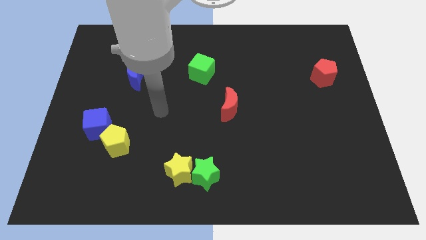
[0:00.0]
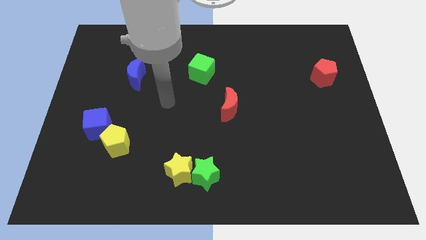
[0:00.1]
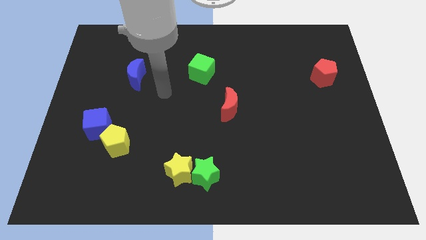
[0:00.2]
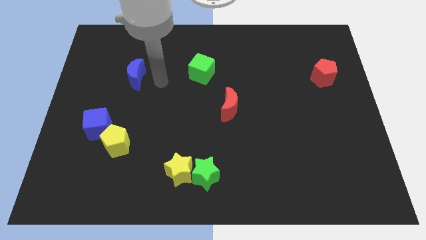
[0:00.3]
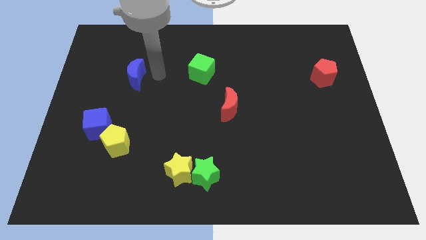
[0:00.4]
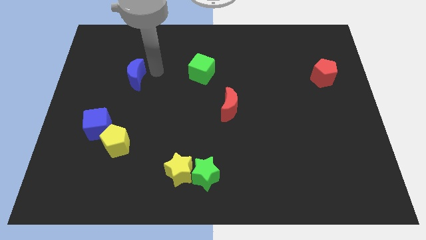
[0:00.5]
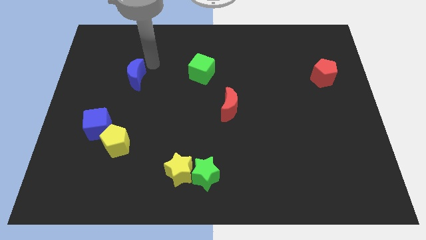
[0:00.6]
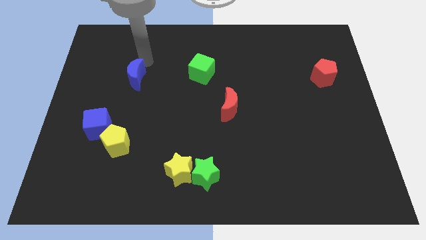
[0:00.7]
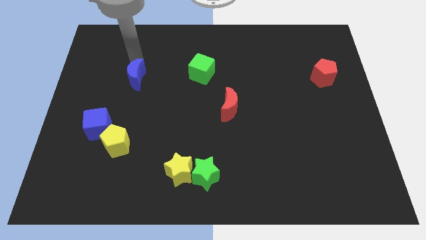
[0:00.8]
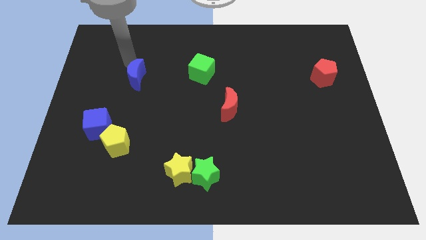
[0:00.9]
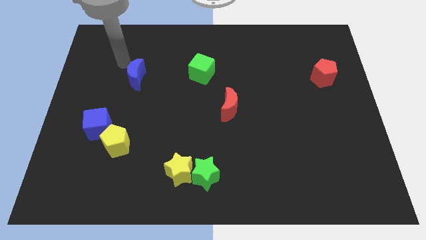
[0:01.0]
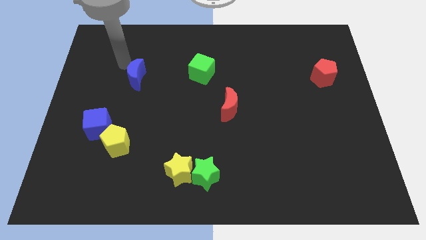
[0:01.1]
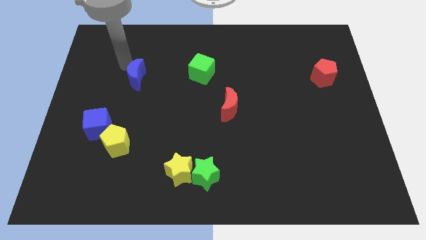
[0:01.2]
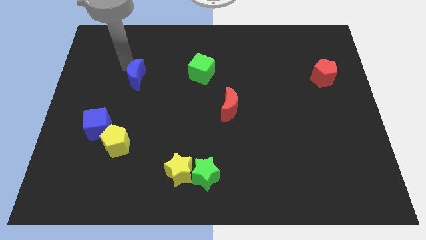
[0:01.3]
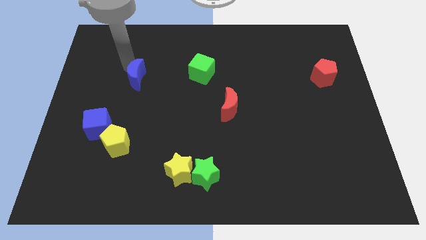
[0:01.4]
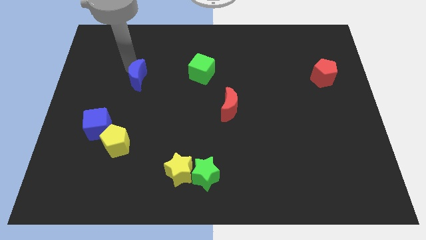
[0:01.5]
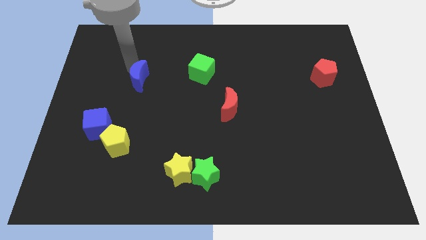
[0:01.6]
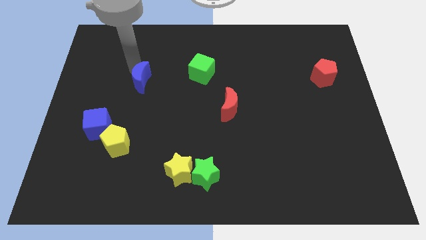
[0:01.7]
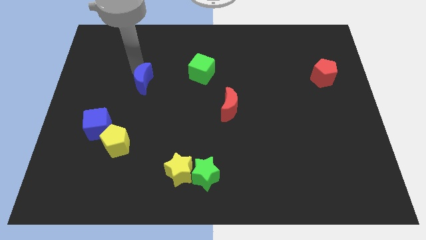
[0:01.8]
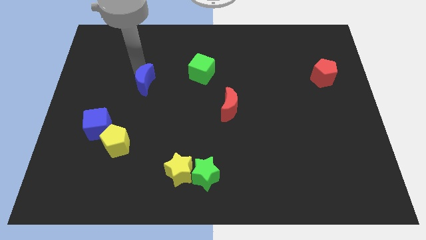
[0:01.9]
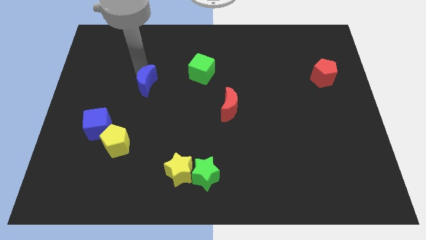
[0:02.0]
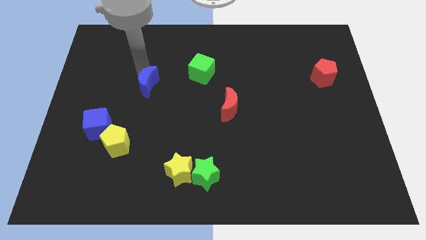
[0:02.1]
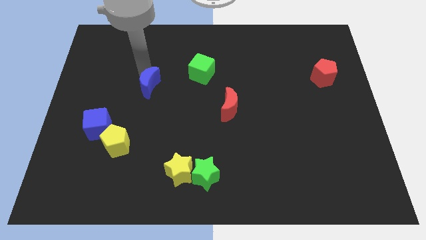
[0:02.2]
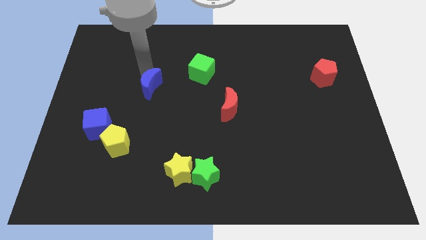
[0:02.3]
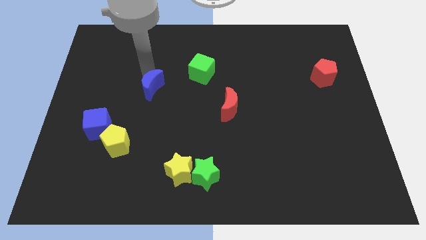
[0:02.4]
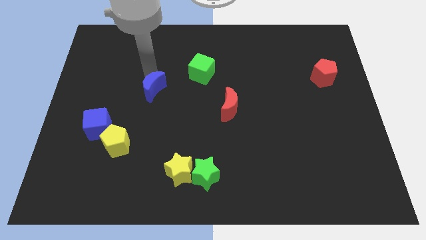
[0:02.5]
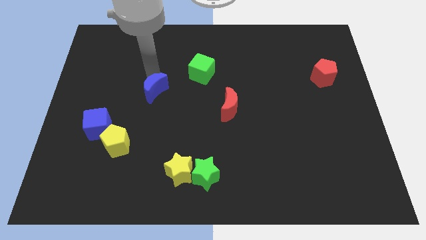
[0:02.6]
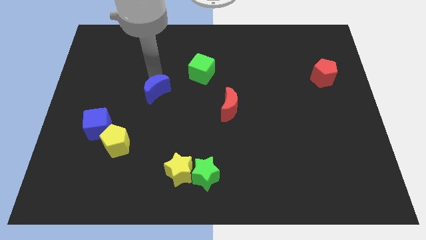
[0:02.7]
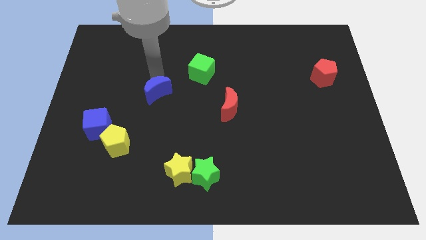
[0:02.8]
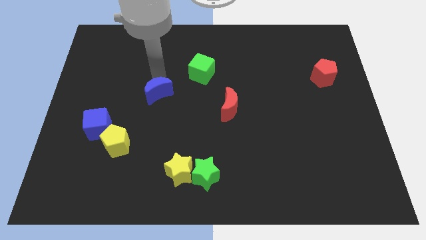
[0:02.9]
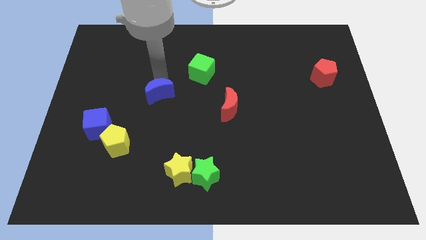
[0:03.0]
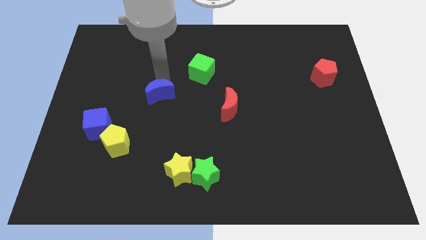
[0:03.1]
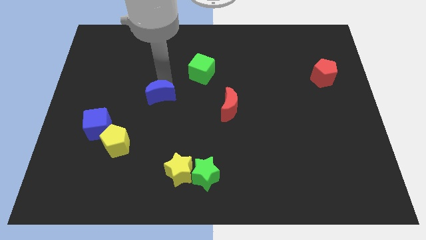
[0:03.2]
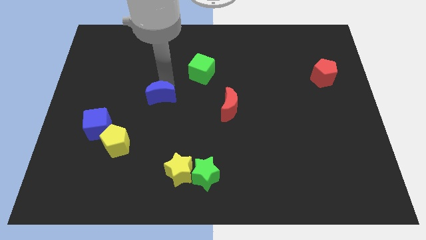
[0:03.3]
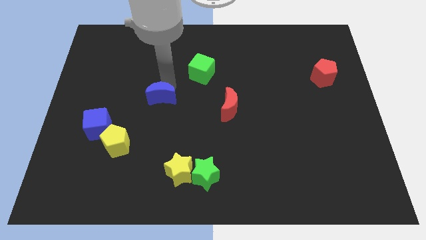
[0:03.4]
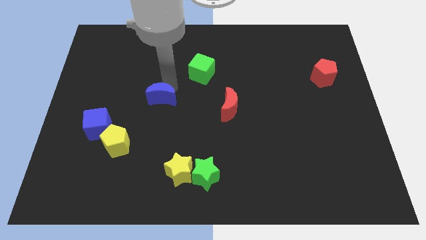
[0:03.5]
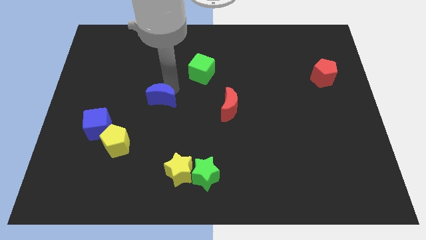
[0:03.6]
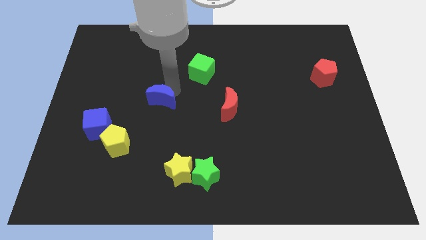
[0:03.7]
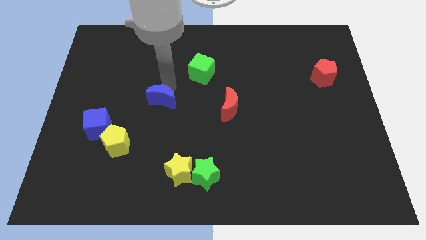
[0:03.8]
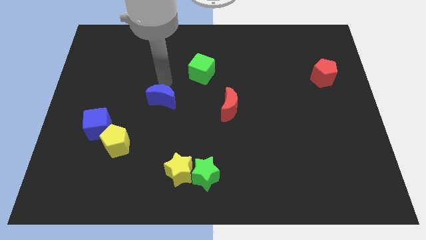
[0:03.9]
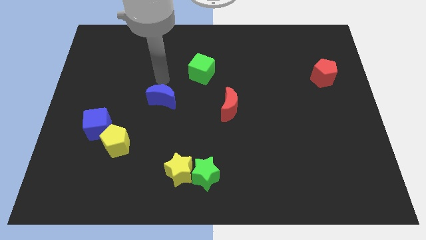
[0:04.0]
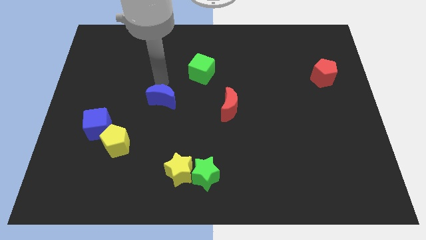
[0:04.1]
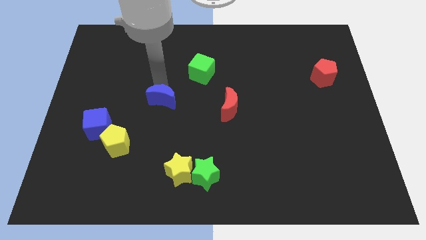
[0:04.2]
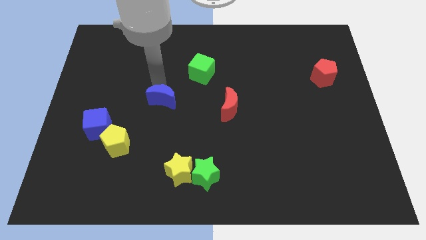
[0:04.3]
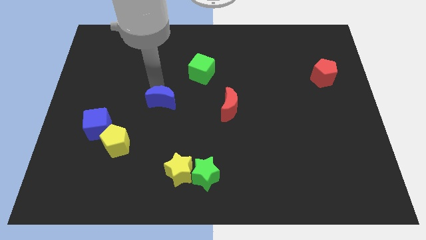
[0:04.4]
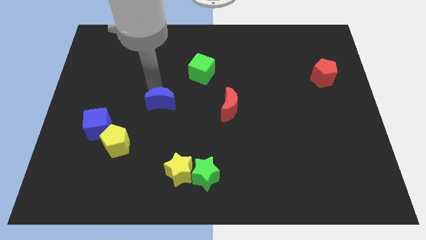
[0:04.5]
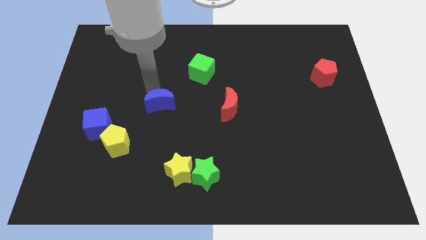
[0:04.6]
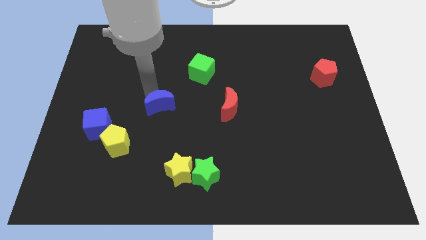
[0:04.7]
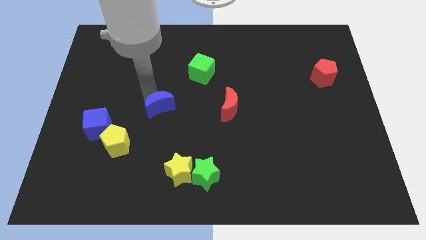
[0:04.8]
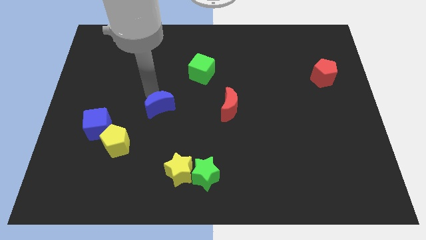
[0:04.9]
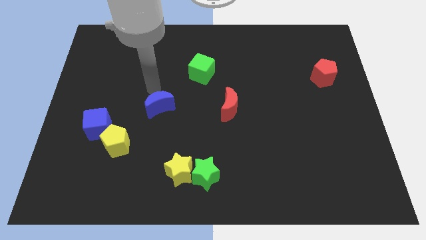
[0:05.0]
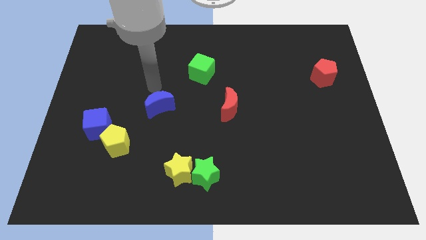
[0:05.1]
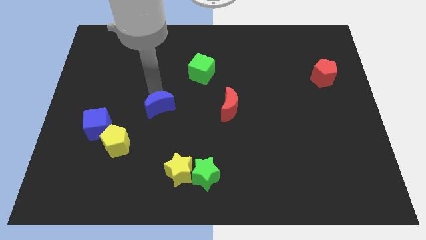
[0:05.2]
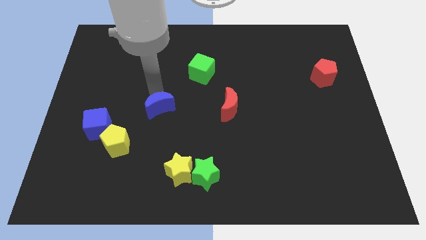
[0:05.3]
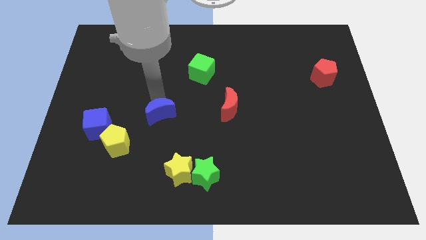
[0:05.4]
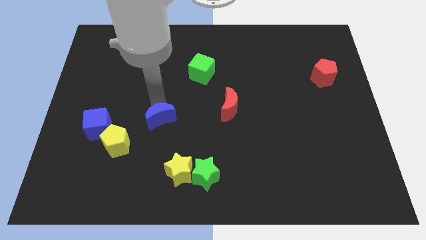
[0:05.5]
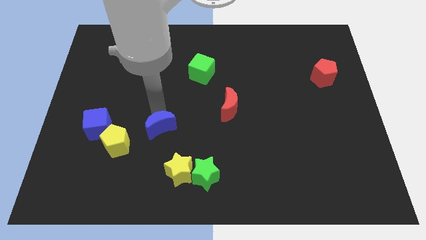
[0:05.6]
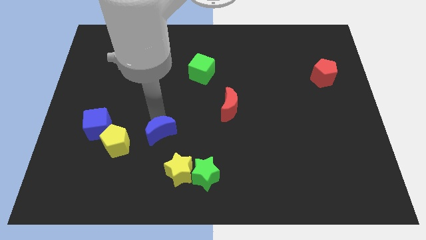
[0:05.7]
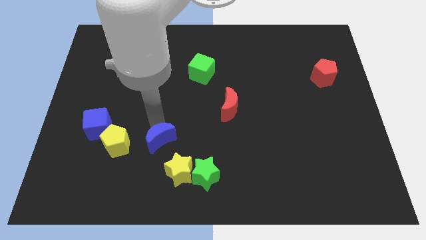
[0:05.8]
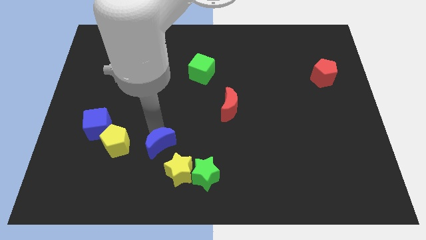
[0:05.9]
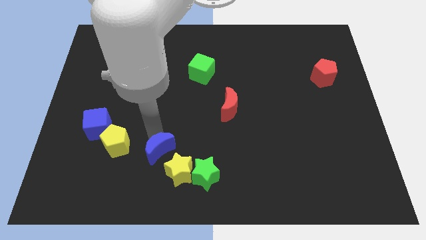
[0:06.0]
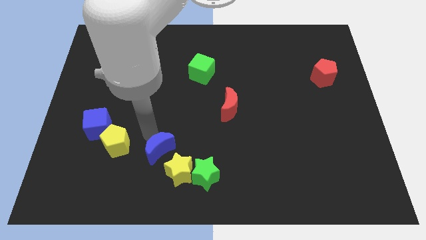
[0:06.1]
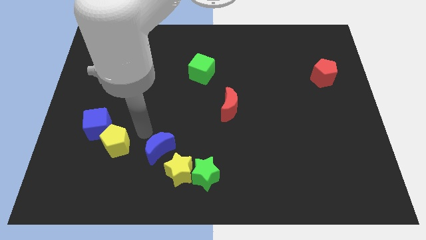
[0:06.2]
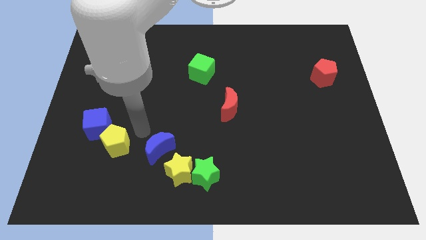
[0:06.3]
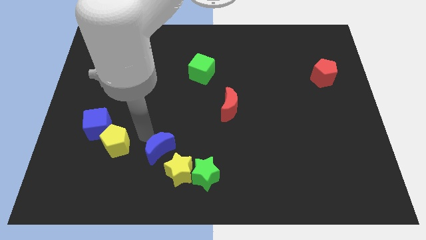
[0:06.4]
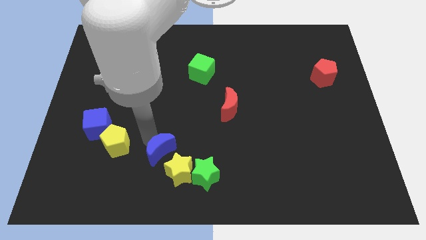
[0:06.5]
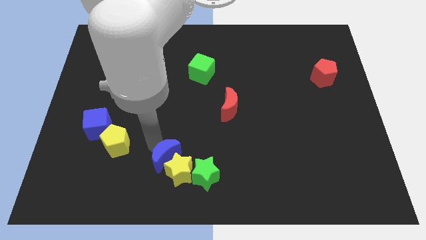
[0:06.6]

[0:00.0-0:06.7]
push the blue moon close to the yellow star
